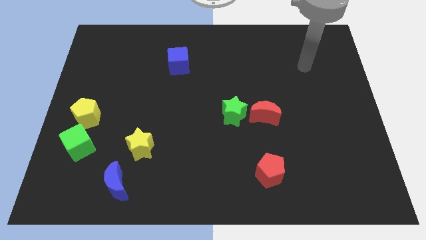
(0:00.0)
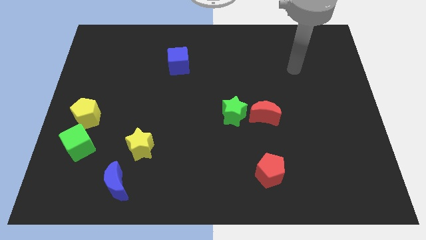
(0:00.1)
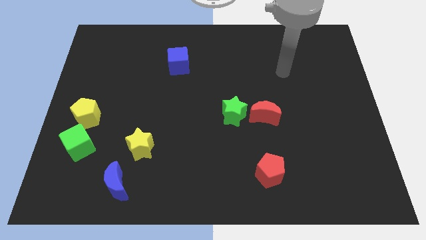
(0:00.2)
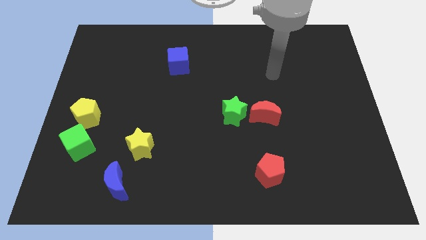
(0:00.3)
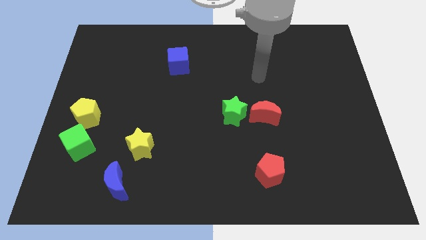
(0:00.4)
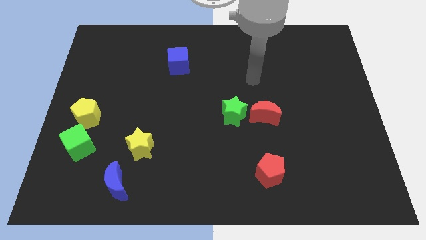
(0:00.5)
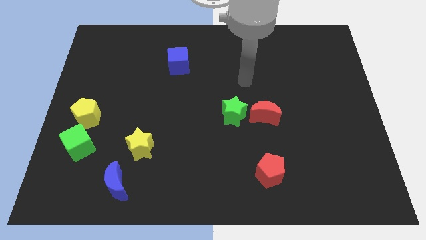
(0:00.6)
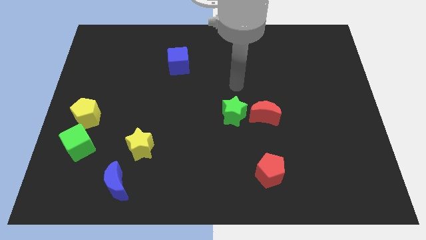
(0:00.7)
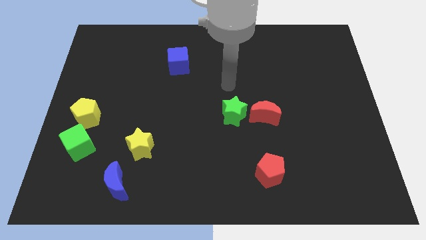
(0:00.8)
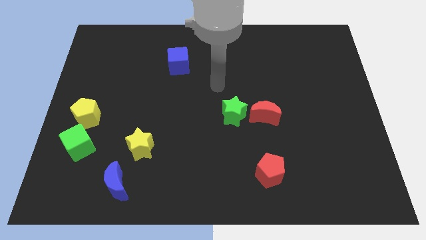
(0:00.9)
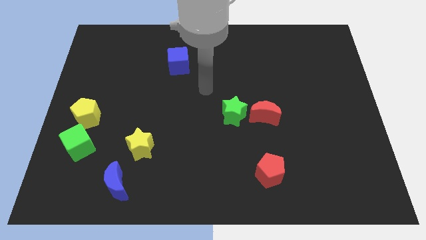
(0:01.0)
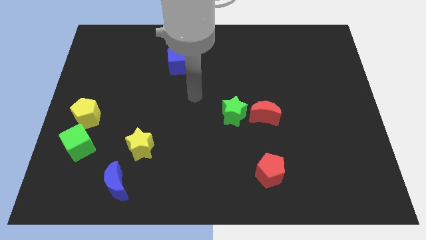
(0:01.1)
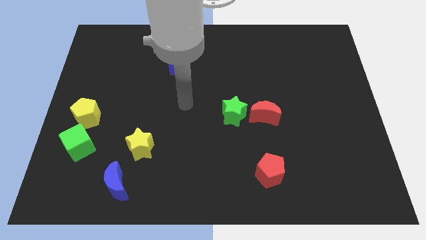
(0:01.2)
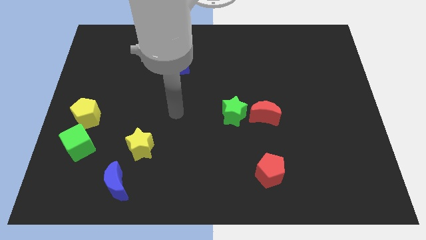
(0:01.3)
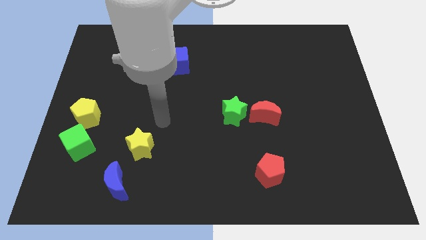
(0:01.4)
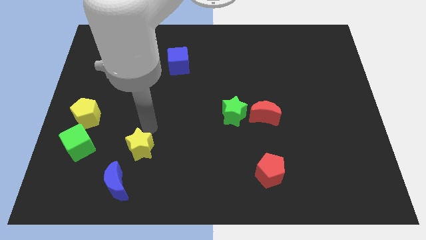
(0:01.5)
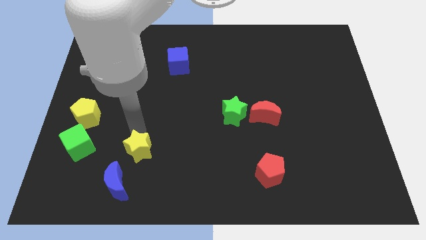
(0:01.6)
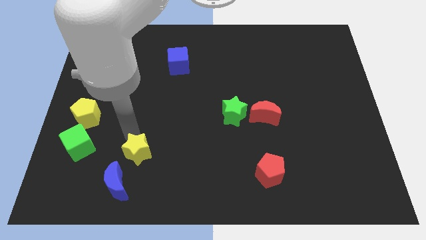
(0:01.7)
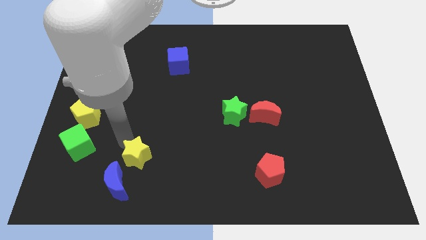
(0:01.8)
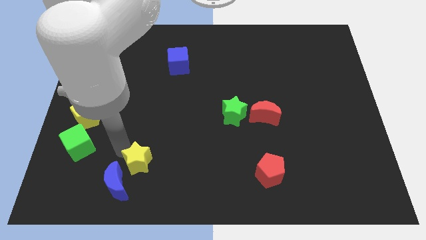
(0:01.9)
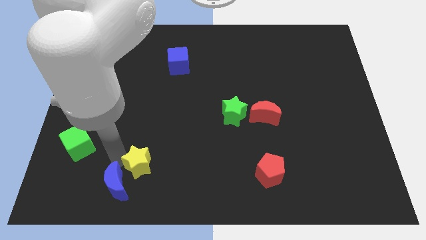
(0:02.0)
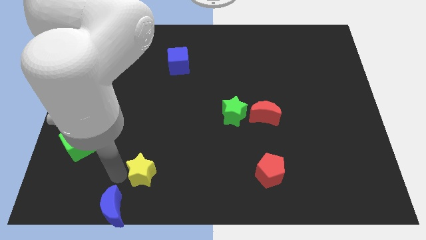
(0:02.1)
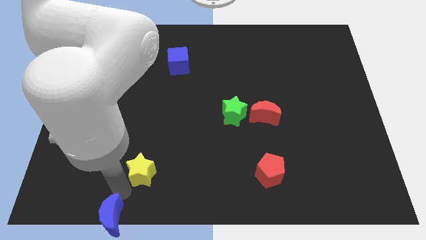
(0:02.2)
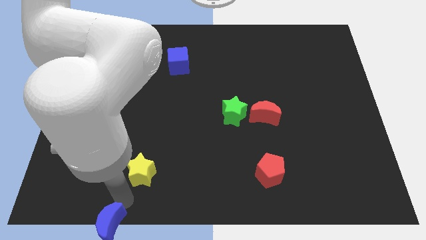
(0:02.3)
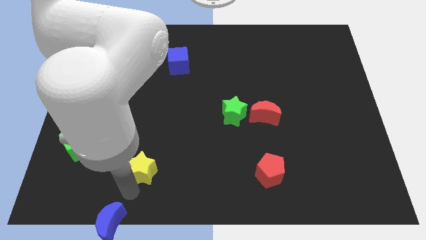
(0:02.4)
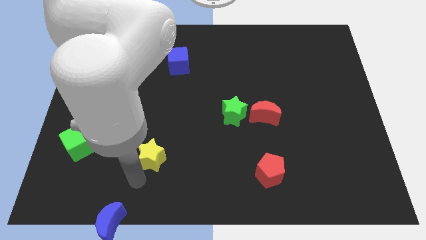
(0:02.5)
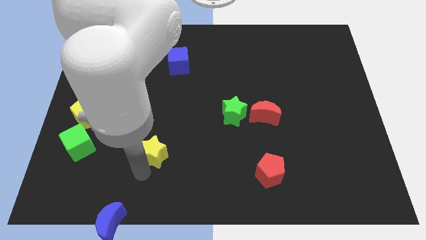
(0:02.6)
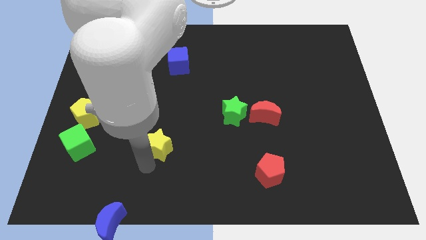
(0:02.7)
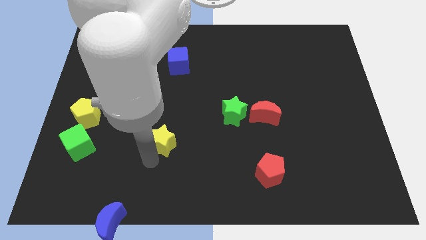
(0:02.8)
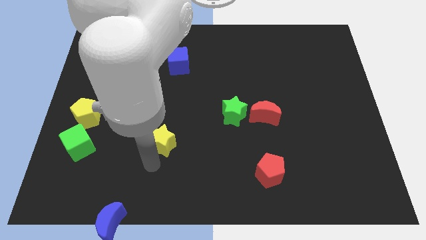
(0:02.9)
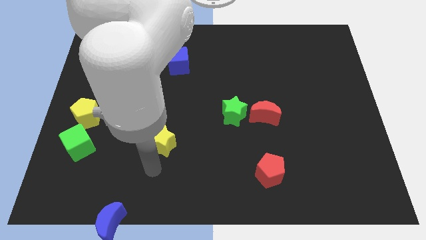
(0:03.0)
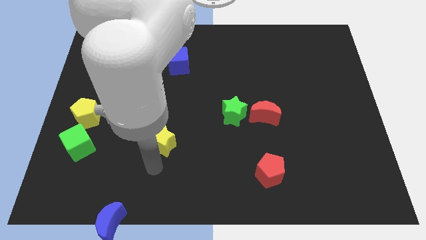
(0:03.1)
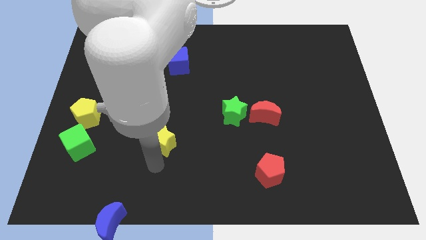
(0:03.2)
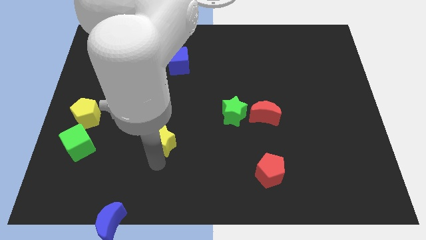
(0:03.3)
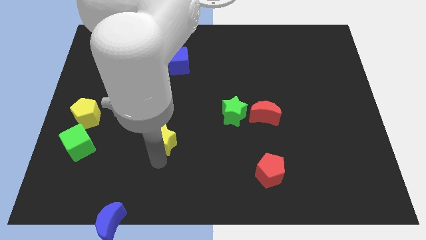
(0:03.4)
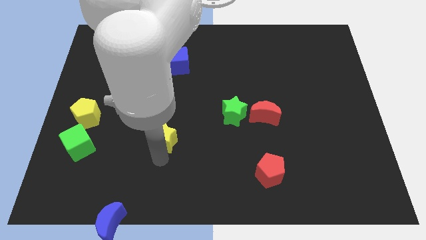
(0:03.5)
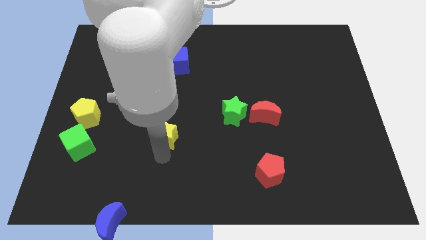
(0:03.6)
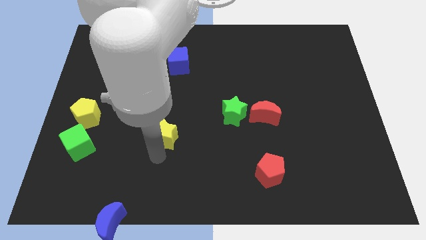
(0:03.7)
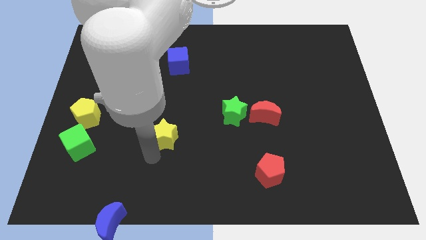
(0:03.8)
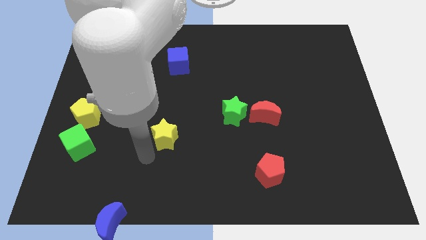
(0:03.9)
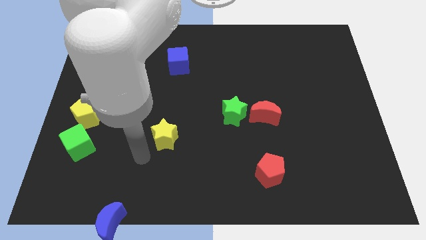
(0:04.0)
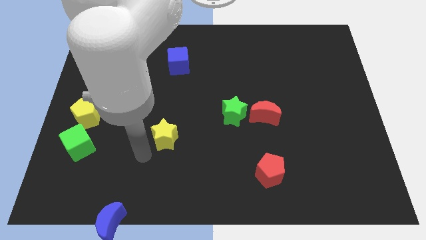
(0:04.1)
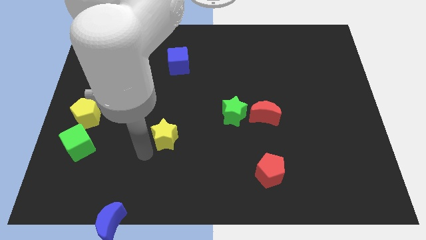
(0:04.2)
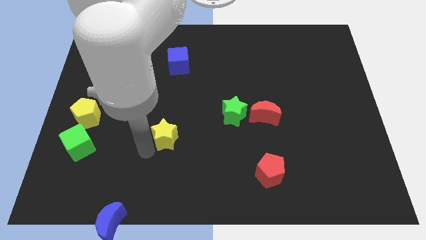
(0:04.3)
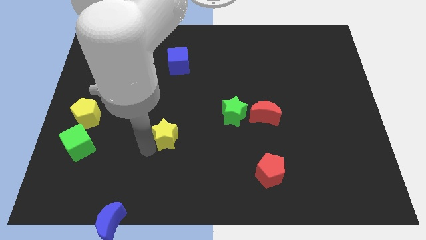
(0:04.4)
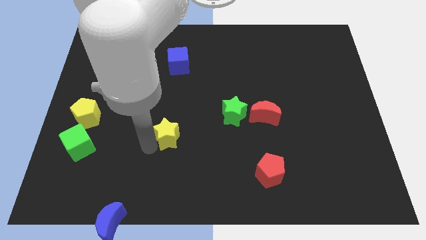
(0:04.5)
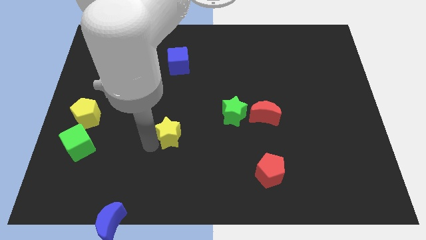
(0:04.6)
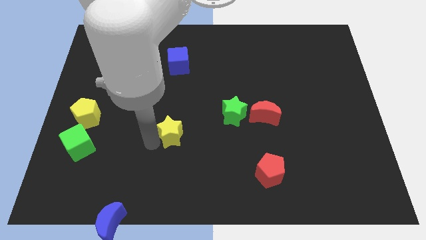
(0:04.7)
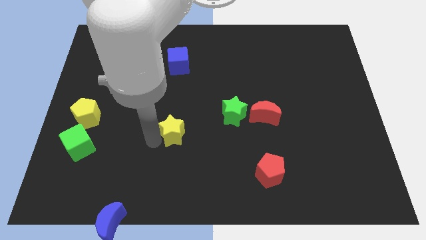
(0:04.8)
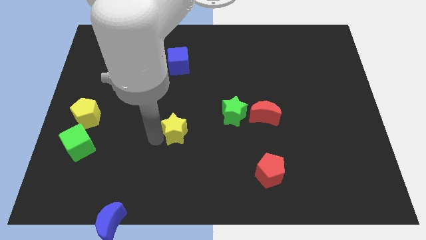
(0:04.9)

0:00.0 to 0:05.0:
move the yellow star to the middle

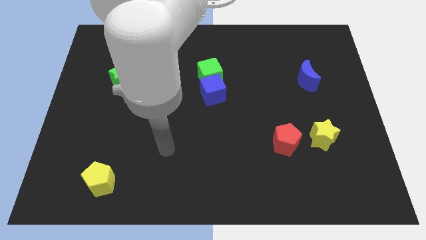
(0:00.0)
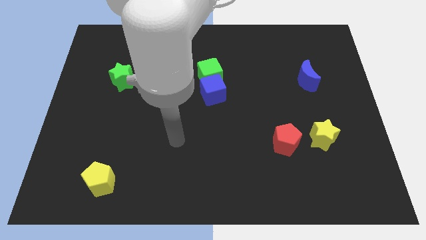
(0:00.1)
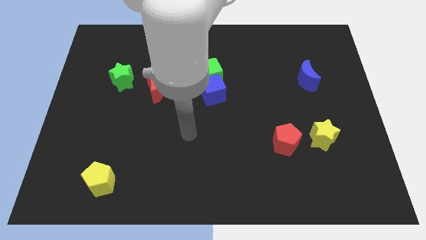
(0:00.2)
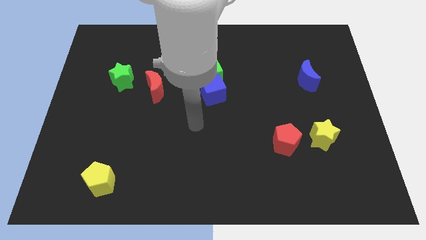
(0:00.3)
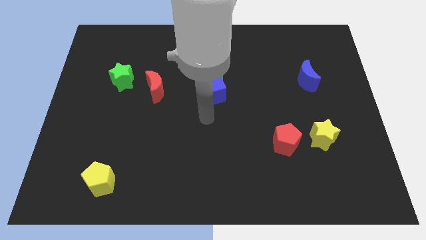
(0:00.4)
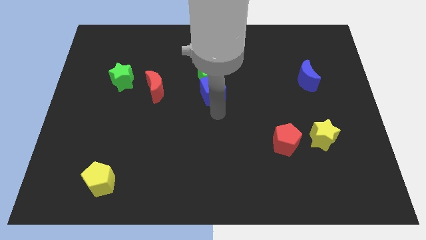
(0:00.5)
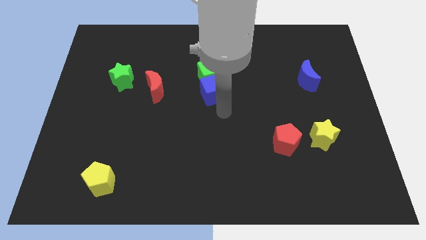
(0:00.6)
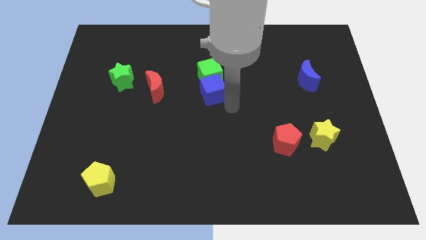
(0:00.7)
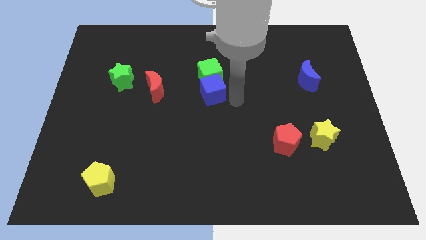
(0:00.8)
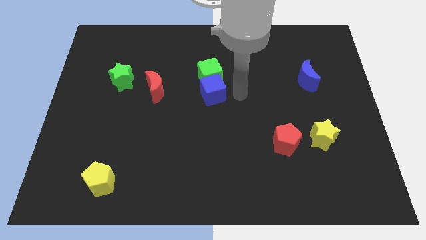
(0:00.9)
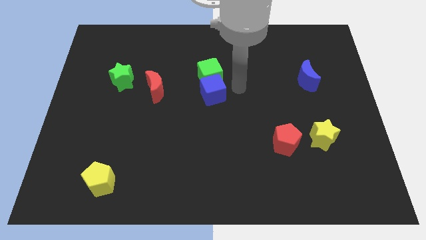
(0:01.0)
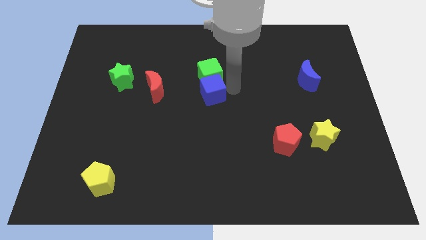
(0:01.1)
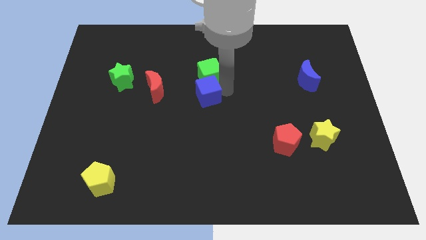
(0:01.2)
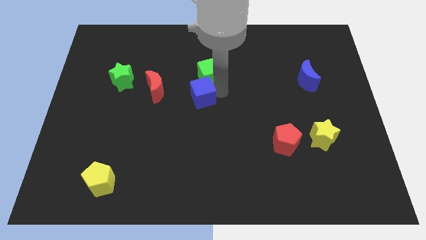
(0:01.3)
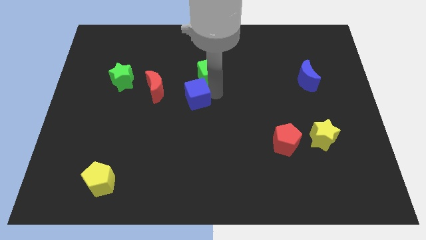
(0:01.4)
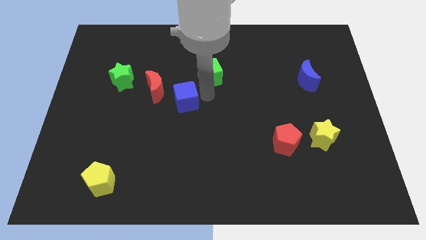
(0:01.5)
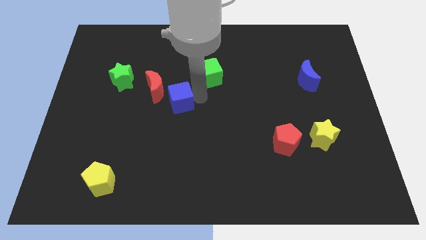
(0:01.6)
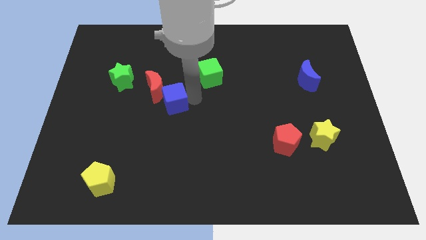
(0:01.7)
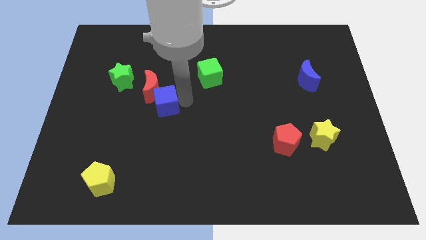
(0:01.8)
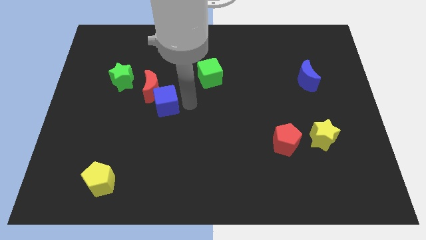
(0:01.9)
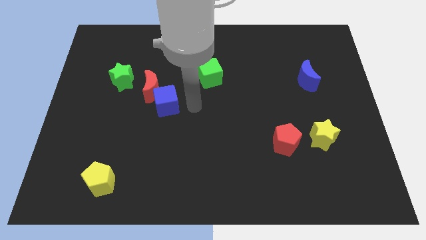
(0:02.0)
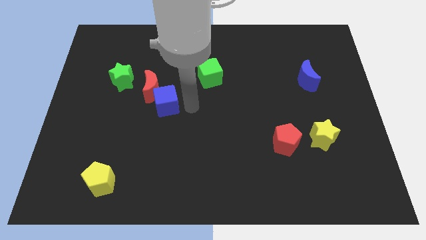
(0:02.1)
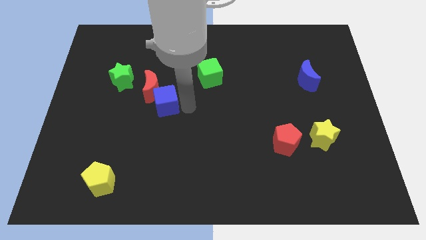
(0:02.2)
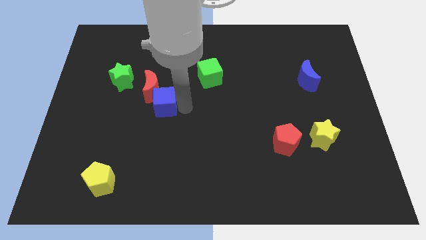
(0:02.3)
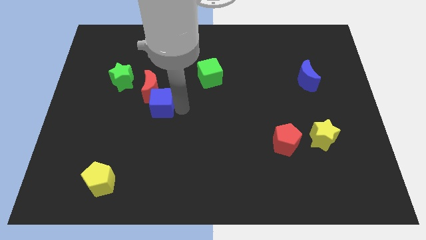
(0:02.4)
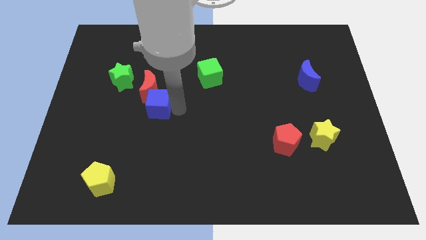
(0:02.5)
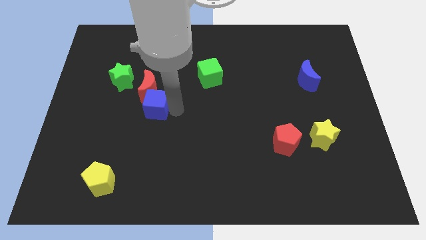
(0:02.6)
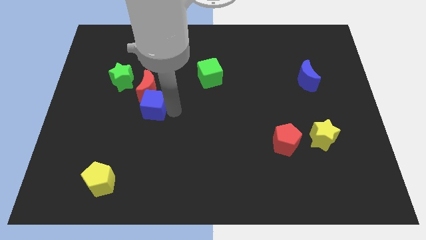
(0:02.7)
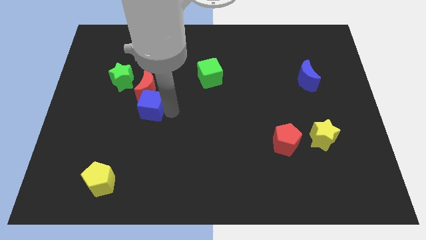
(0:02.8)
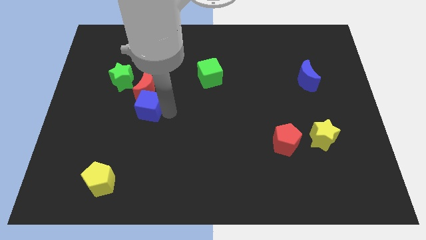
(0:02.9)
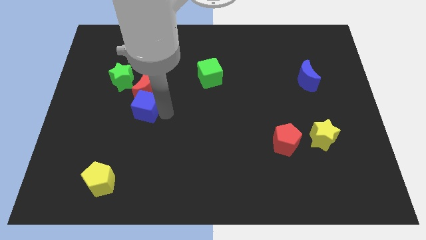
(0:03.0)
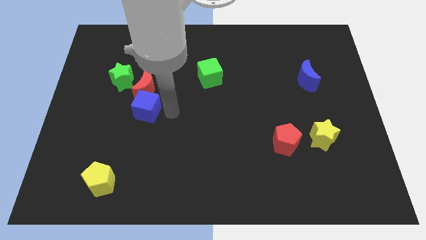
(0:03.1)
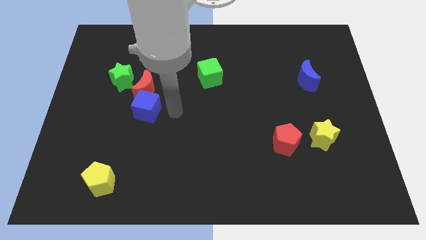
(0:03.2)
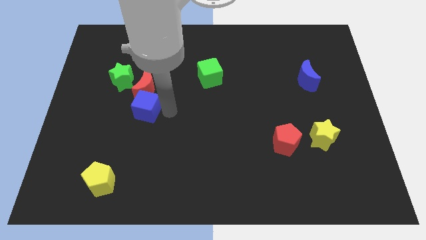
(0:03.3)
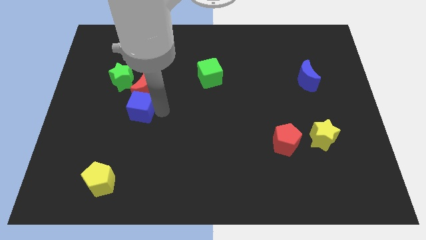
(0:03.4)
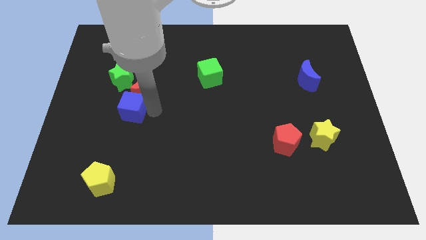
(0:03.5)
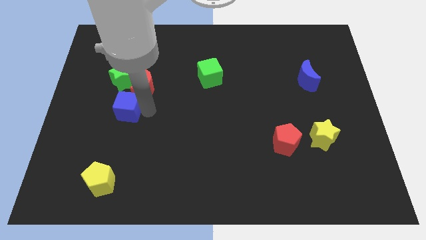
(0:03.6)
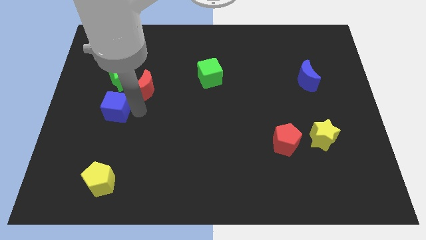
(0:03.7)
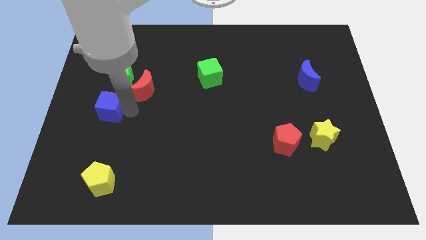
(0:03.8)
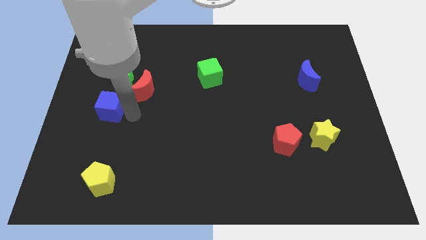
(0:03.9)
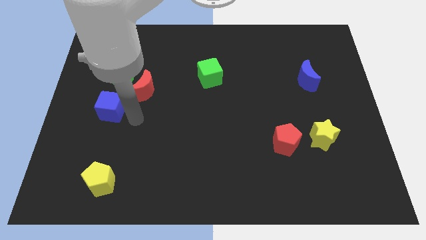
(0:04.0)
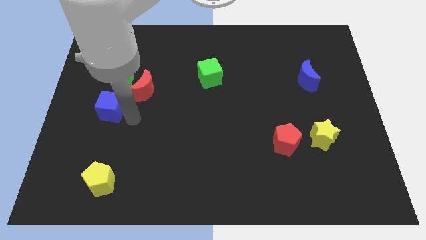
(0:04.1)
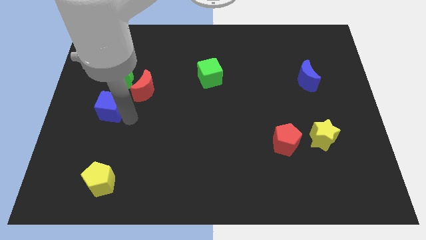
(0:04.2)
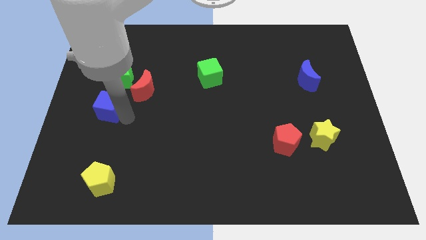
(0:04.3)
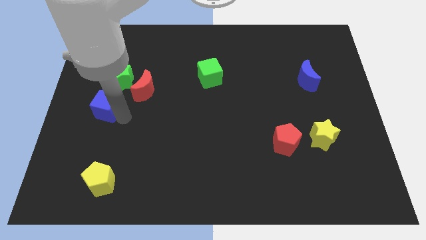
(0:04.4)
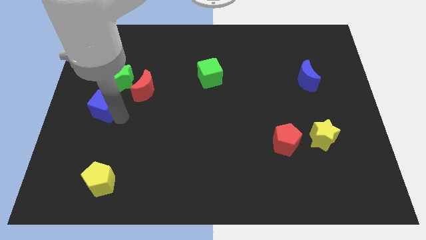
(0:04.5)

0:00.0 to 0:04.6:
slide the blue cube to the left side
